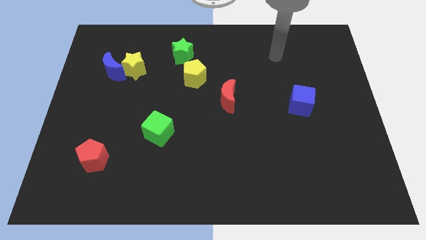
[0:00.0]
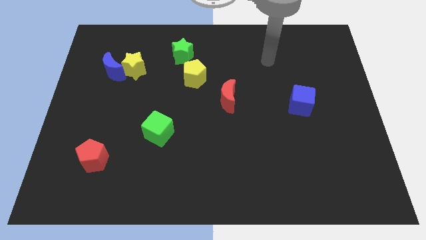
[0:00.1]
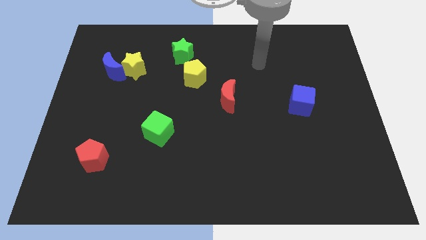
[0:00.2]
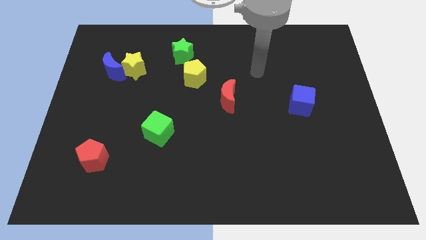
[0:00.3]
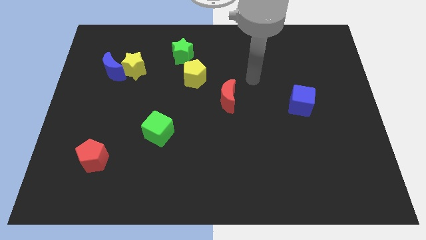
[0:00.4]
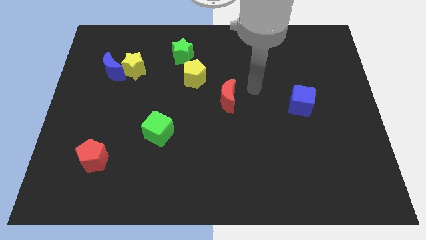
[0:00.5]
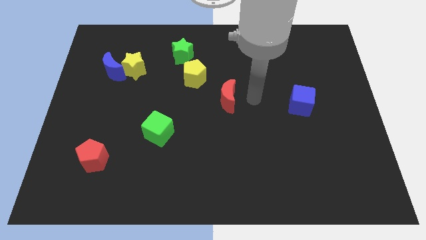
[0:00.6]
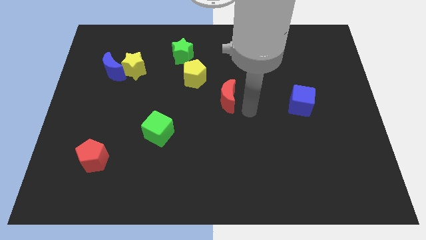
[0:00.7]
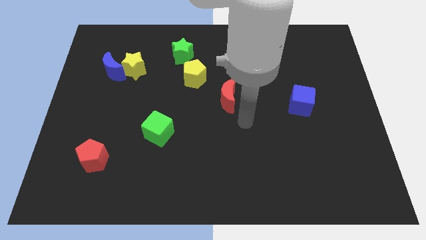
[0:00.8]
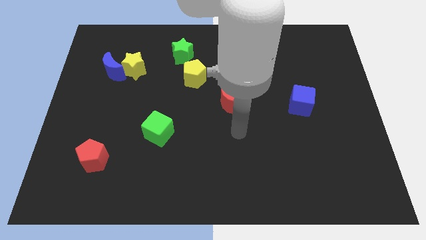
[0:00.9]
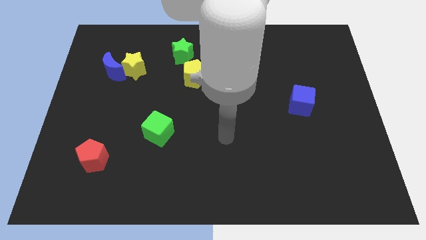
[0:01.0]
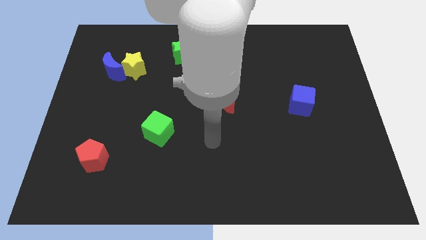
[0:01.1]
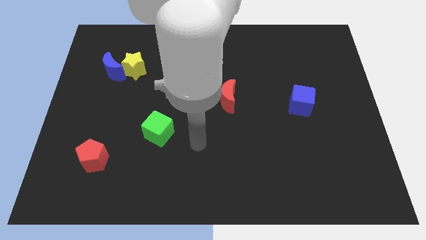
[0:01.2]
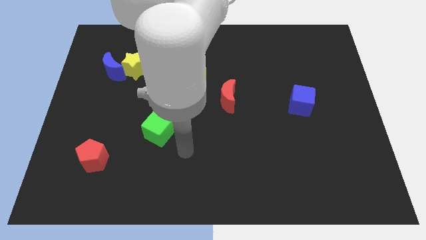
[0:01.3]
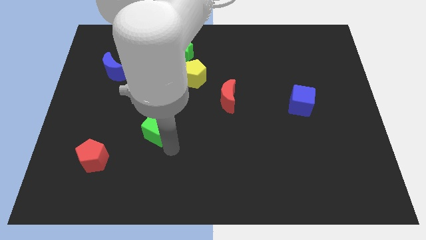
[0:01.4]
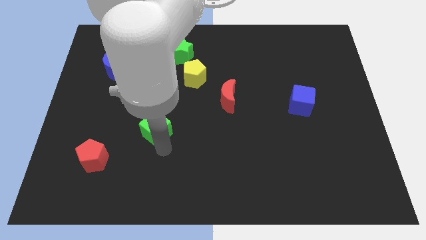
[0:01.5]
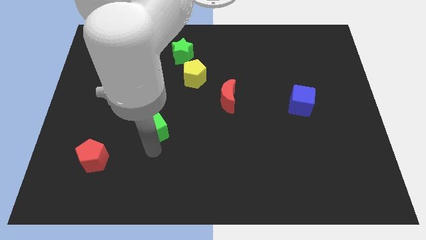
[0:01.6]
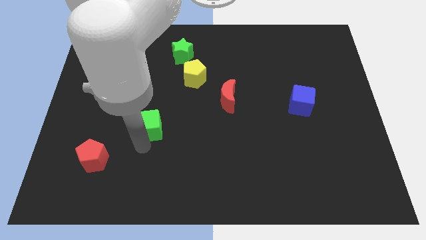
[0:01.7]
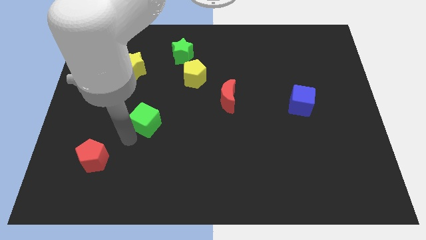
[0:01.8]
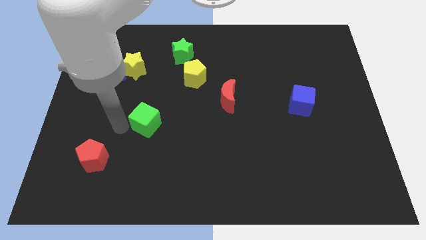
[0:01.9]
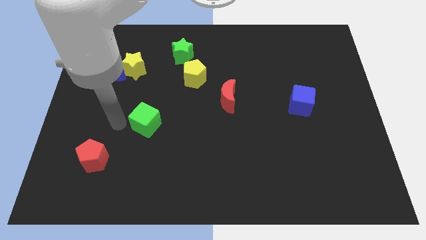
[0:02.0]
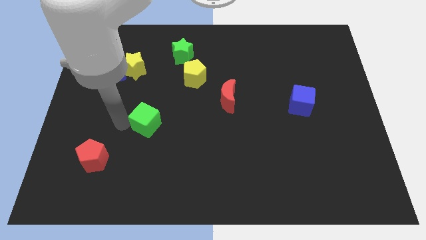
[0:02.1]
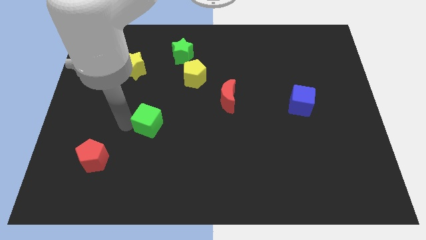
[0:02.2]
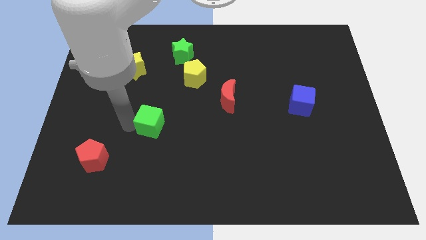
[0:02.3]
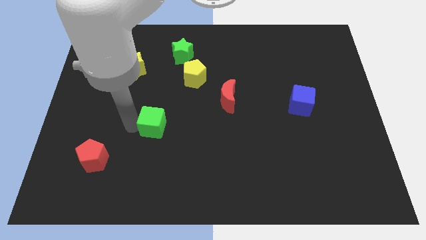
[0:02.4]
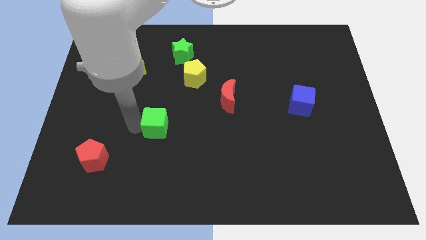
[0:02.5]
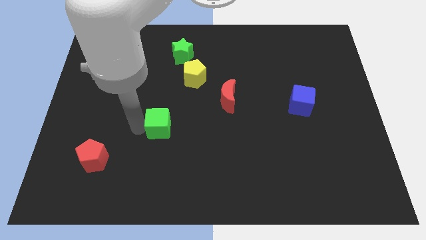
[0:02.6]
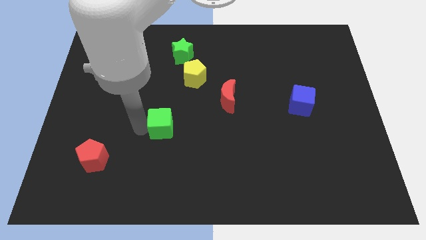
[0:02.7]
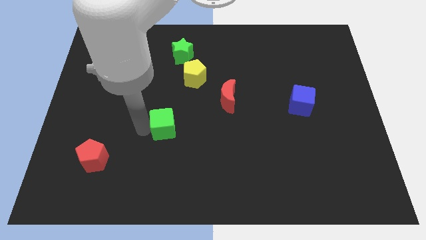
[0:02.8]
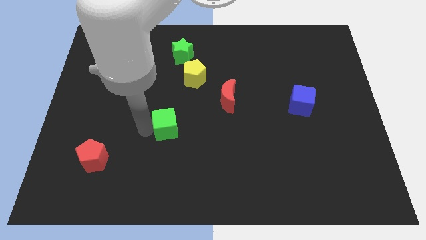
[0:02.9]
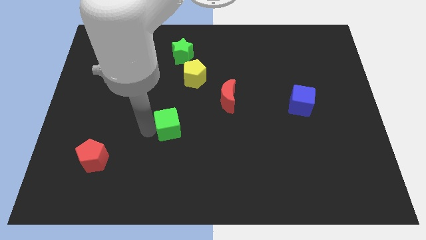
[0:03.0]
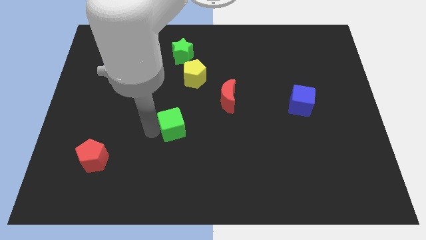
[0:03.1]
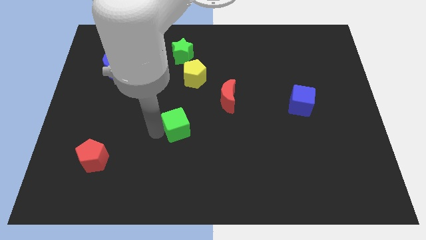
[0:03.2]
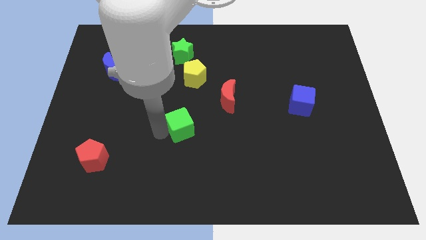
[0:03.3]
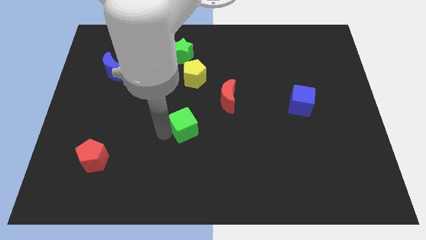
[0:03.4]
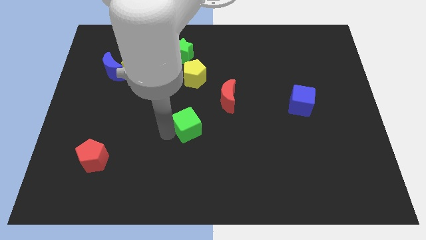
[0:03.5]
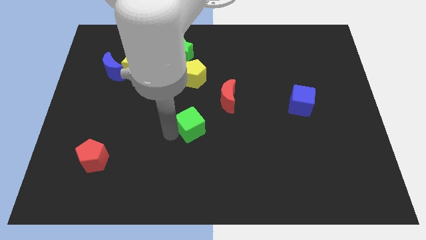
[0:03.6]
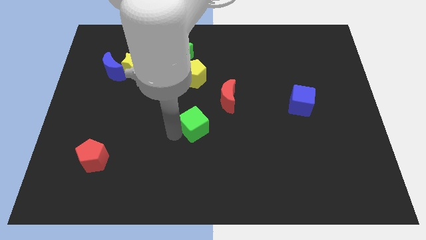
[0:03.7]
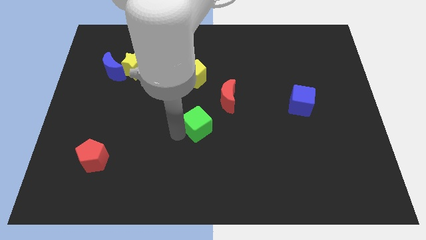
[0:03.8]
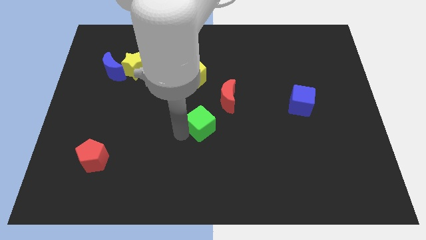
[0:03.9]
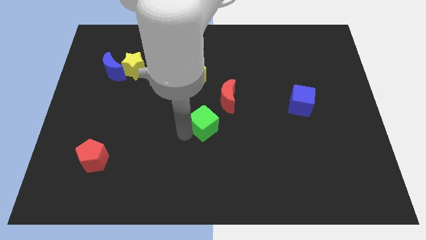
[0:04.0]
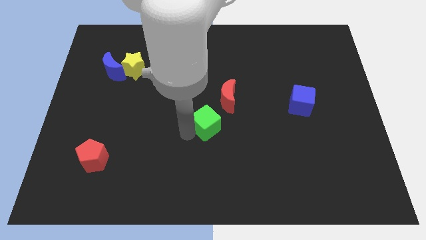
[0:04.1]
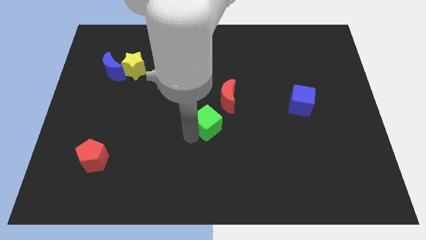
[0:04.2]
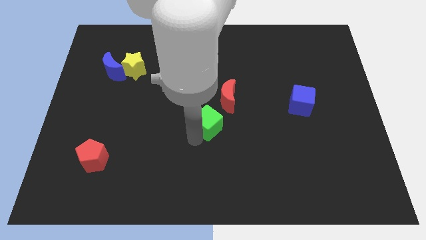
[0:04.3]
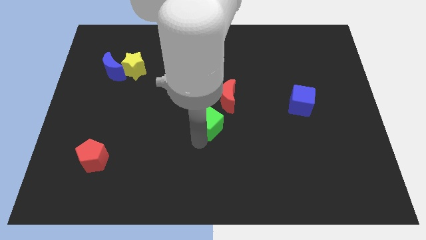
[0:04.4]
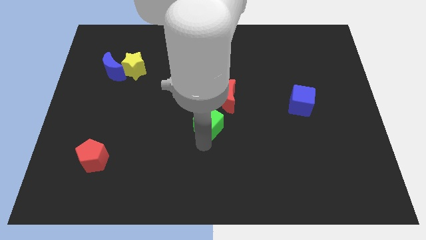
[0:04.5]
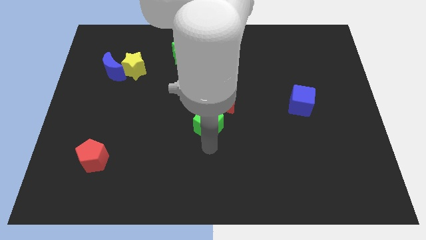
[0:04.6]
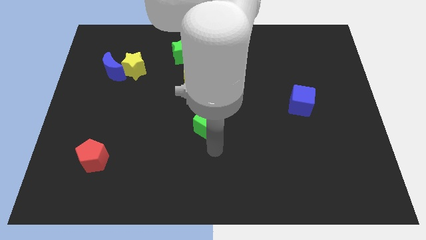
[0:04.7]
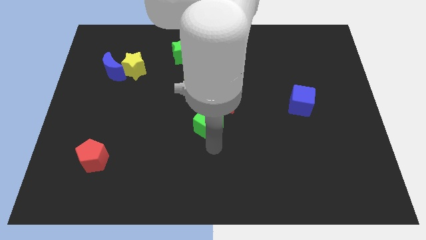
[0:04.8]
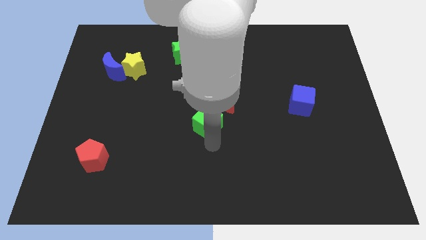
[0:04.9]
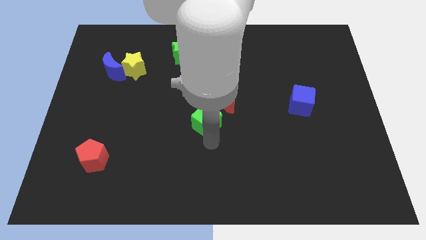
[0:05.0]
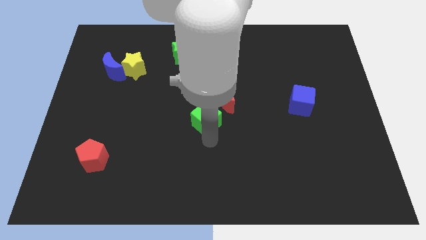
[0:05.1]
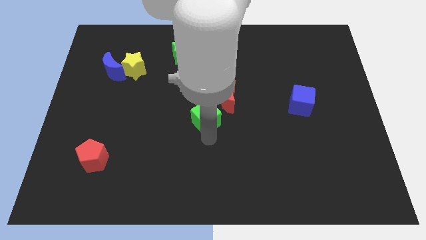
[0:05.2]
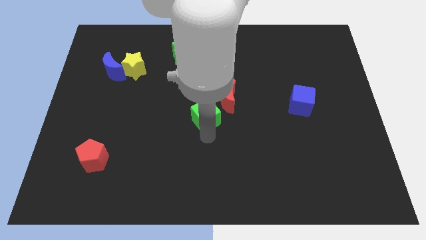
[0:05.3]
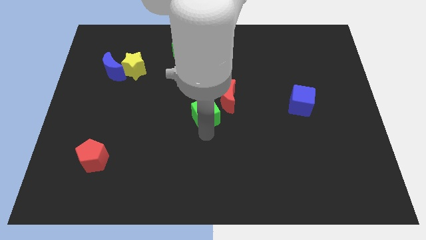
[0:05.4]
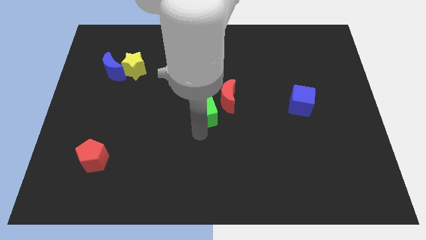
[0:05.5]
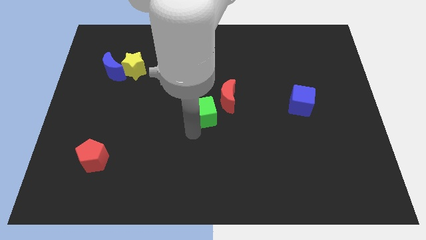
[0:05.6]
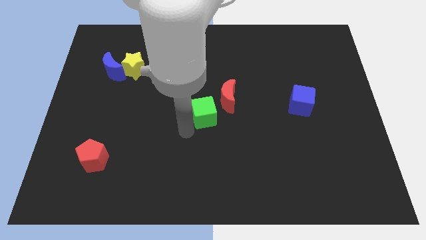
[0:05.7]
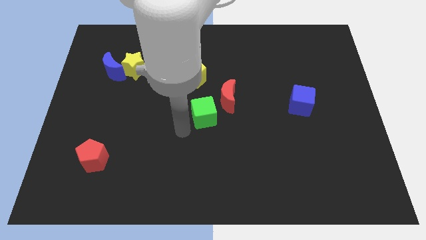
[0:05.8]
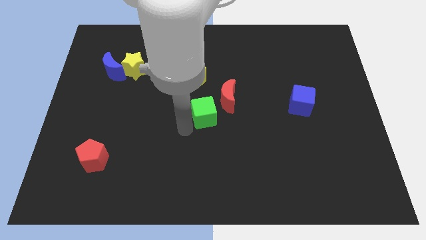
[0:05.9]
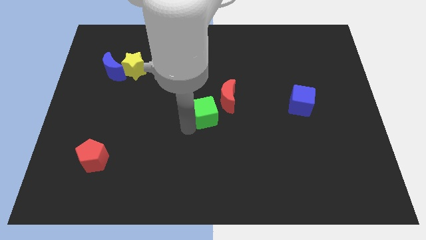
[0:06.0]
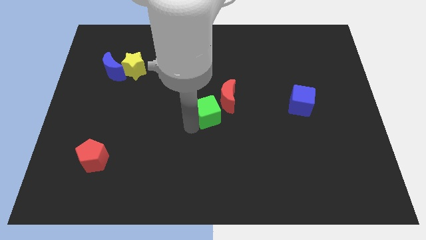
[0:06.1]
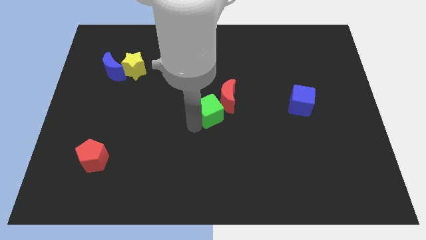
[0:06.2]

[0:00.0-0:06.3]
move the green cube close to the red moon

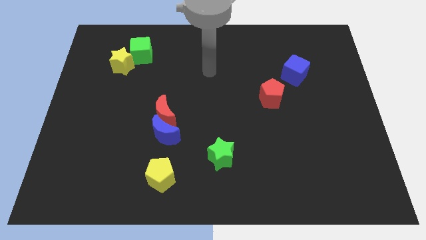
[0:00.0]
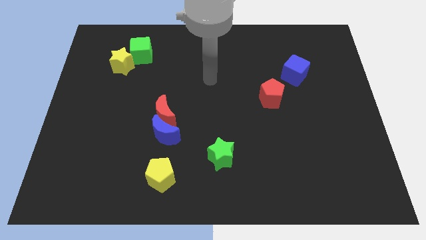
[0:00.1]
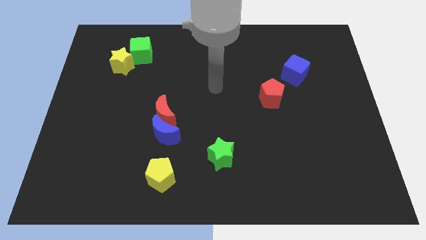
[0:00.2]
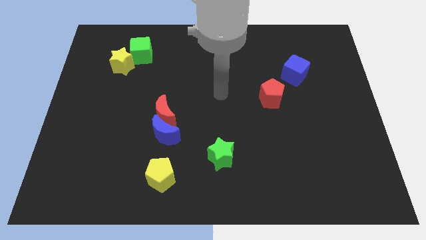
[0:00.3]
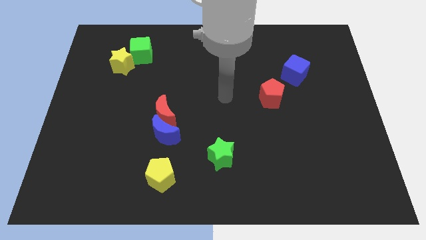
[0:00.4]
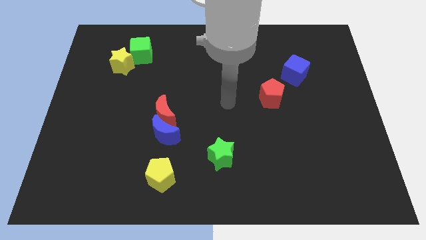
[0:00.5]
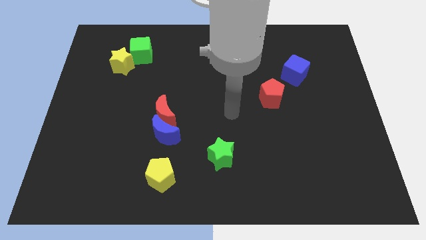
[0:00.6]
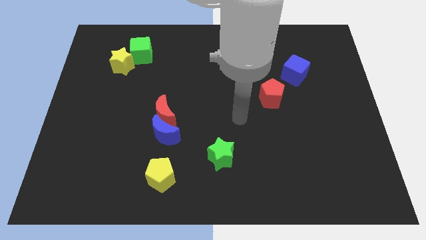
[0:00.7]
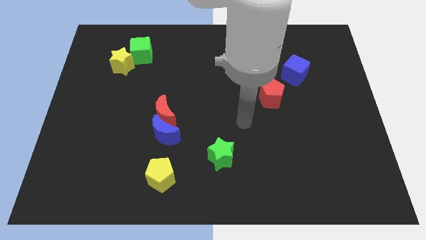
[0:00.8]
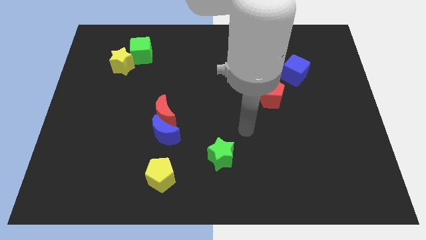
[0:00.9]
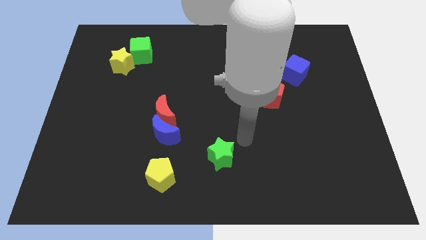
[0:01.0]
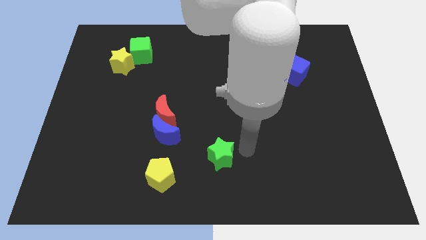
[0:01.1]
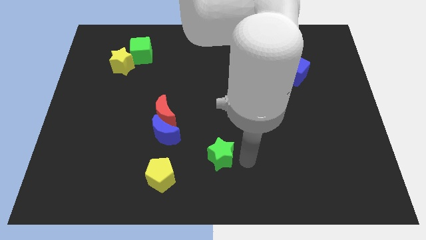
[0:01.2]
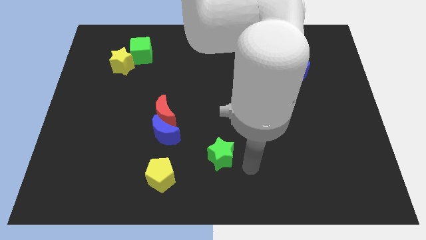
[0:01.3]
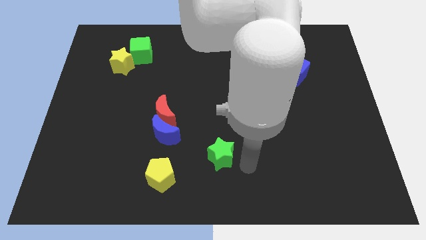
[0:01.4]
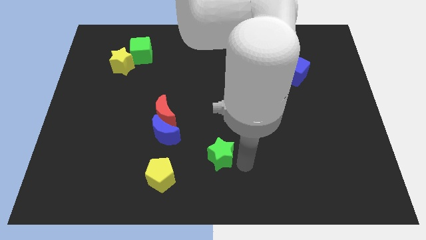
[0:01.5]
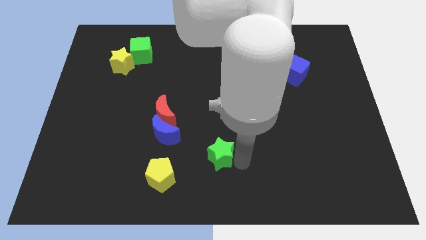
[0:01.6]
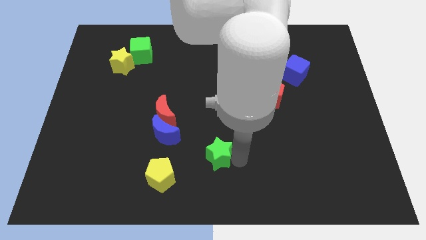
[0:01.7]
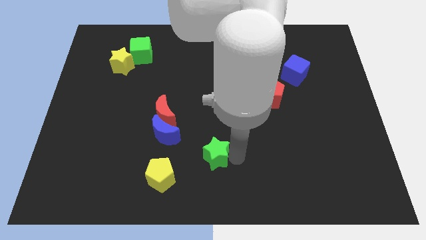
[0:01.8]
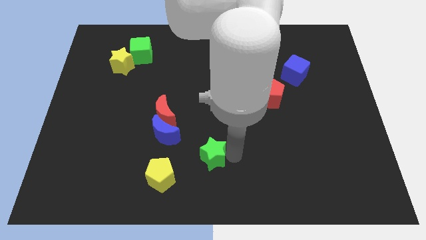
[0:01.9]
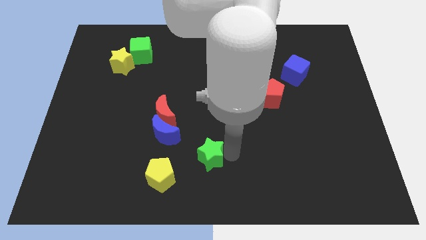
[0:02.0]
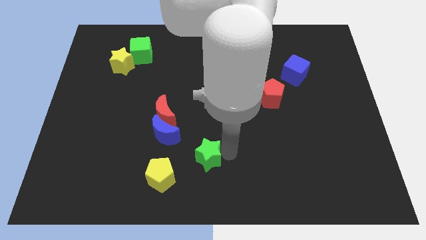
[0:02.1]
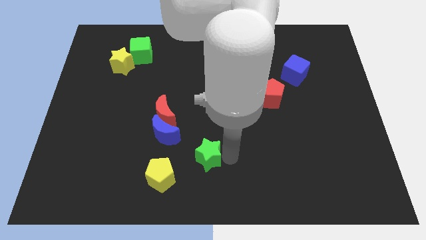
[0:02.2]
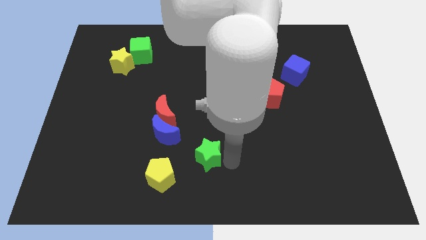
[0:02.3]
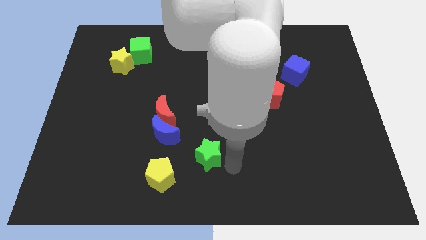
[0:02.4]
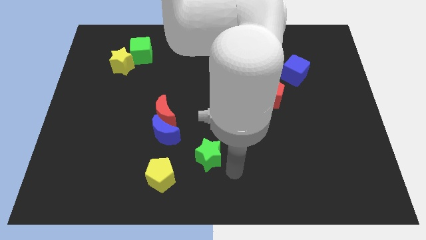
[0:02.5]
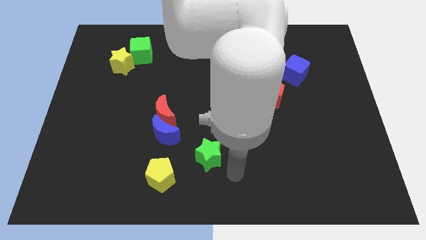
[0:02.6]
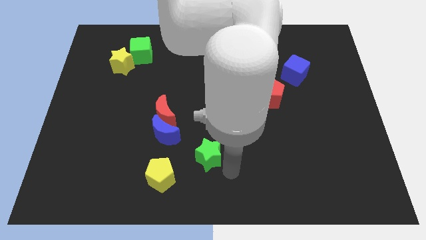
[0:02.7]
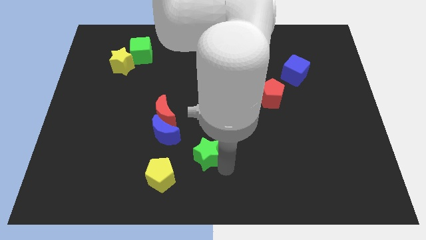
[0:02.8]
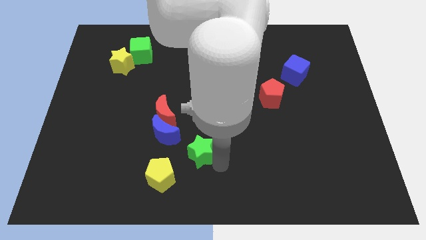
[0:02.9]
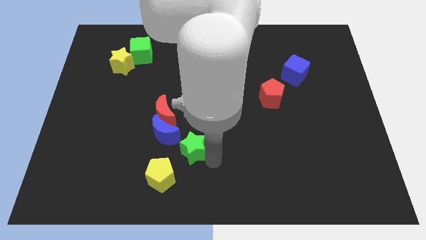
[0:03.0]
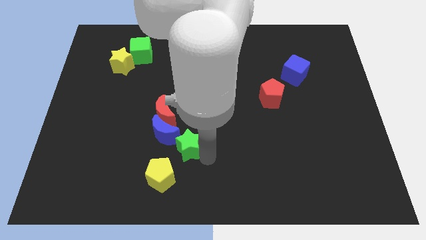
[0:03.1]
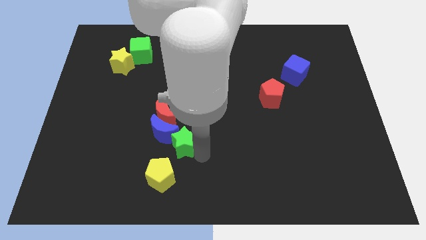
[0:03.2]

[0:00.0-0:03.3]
put the green star next to the blue moon
